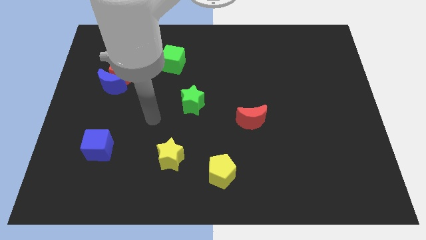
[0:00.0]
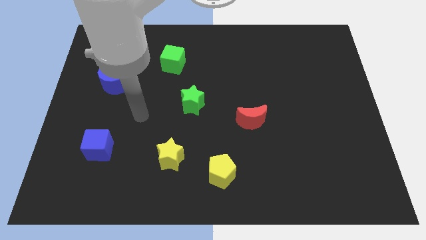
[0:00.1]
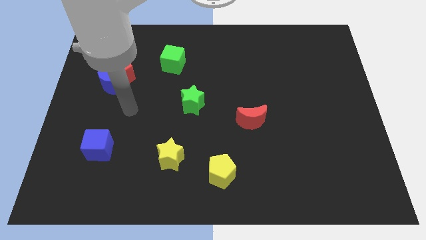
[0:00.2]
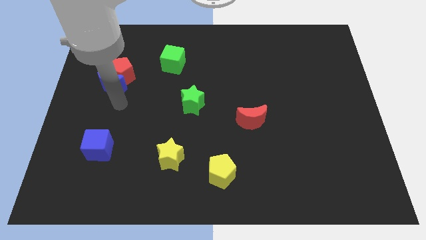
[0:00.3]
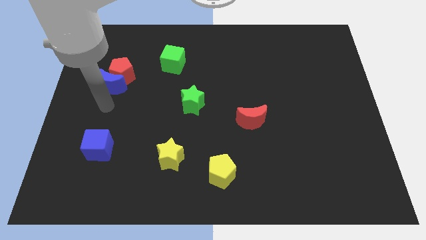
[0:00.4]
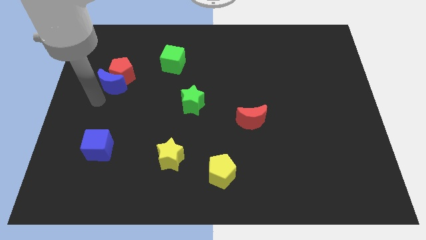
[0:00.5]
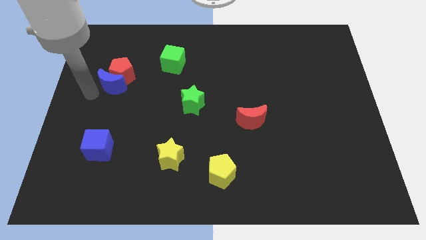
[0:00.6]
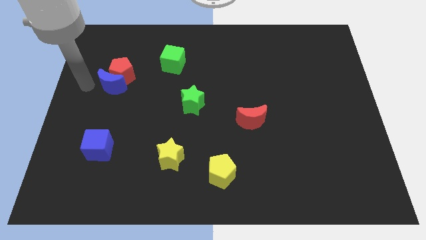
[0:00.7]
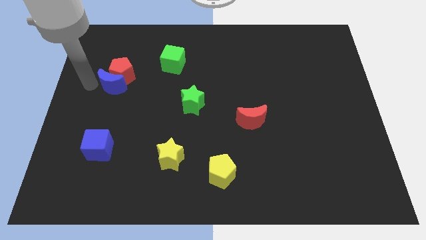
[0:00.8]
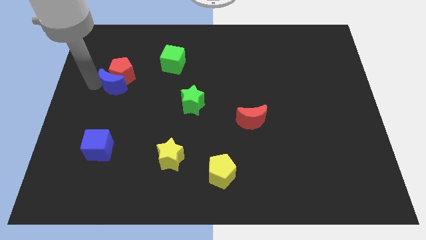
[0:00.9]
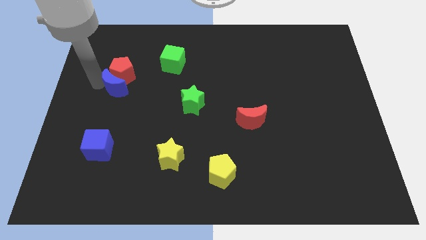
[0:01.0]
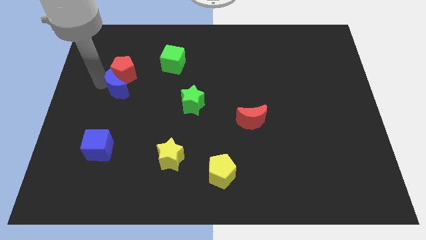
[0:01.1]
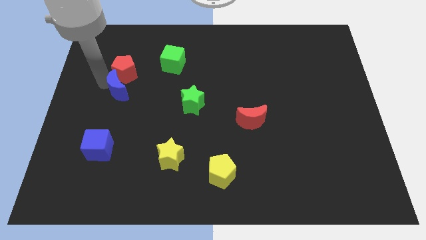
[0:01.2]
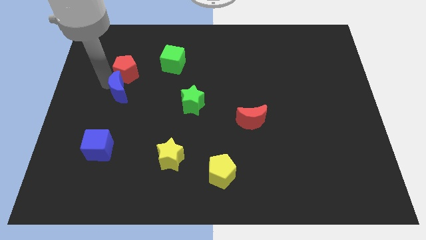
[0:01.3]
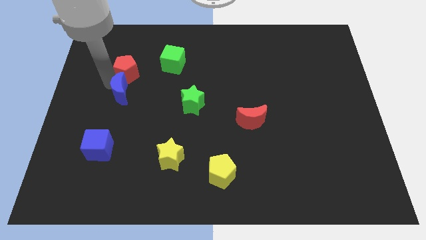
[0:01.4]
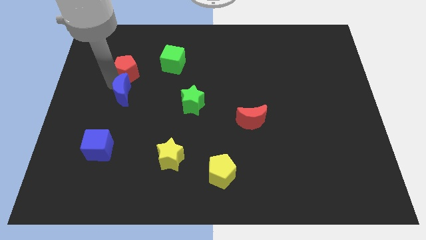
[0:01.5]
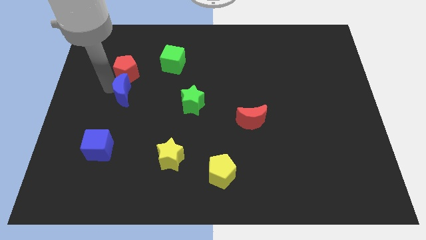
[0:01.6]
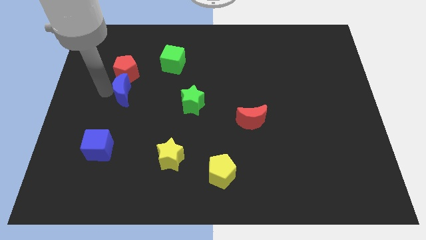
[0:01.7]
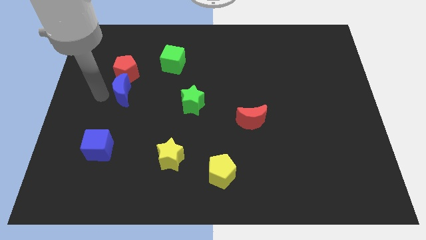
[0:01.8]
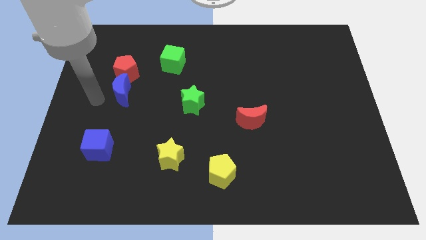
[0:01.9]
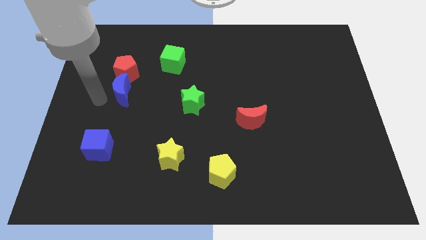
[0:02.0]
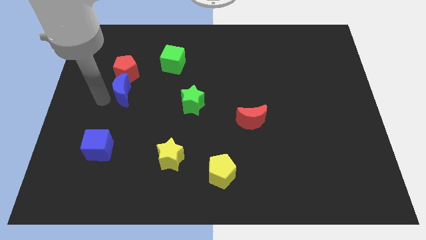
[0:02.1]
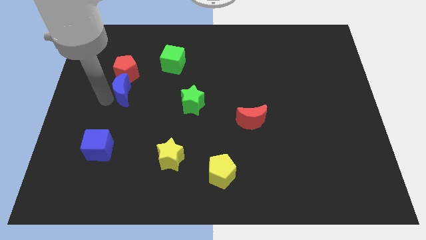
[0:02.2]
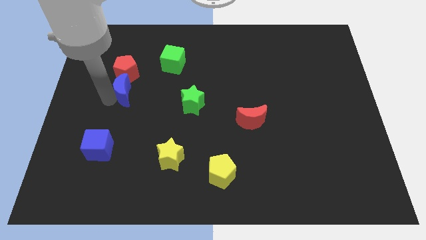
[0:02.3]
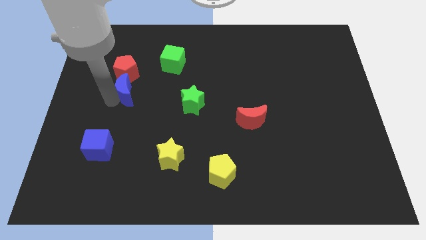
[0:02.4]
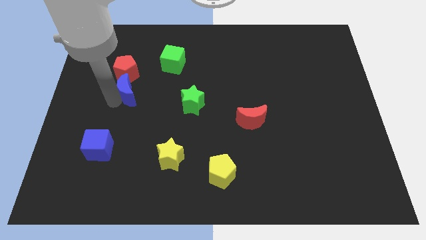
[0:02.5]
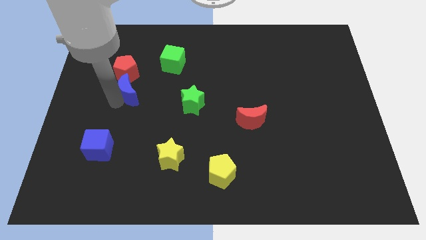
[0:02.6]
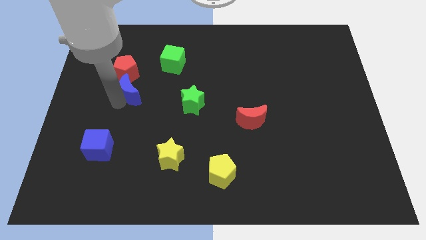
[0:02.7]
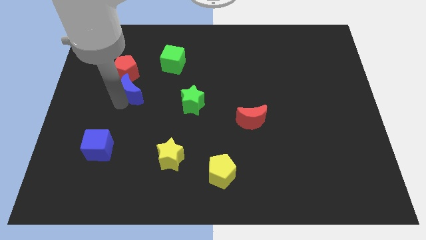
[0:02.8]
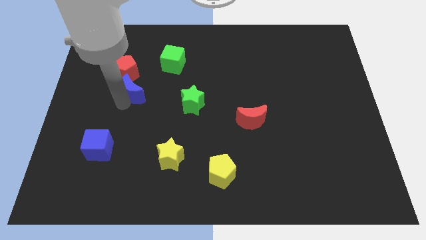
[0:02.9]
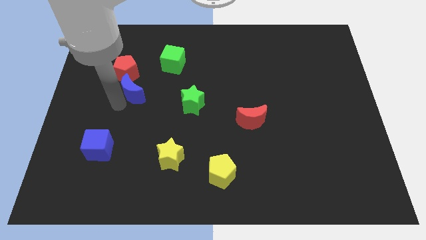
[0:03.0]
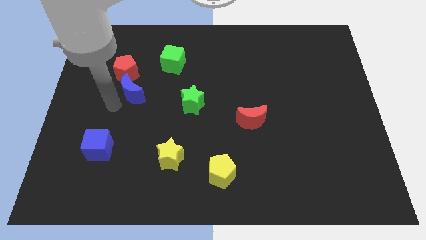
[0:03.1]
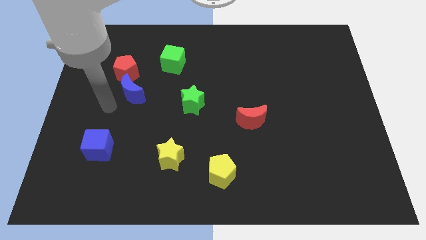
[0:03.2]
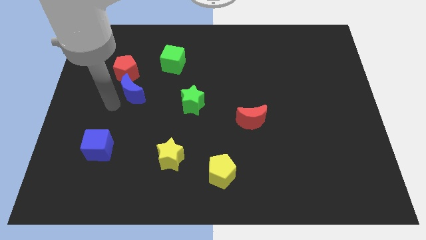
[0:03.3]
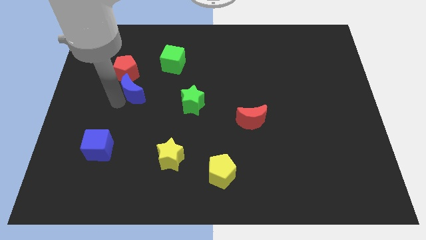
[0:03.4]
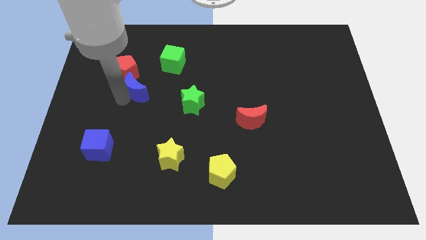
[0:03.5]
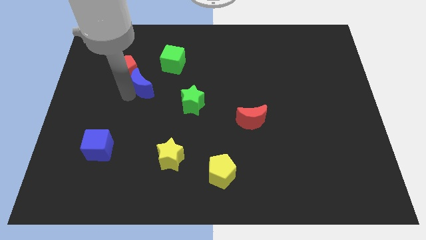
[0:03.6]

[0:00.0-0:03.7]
slide the blue moon right a little

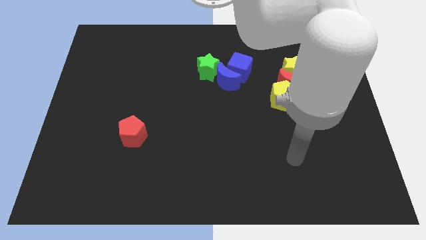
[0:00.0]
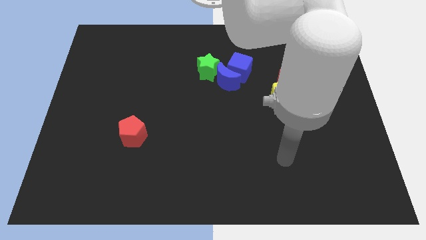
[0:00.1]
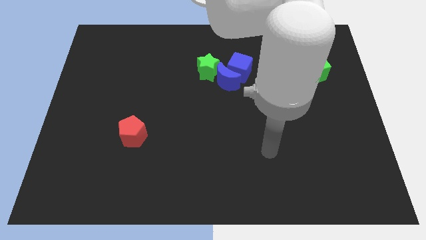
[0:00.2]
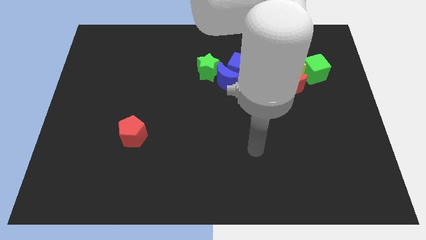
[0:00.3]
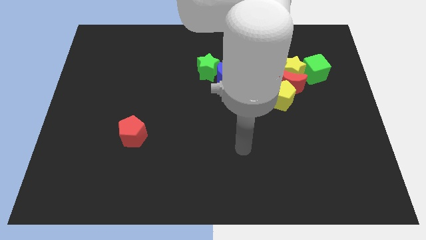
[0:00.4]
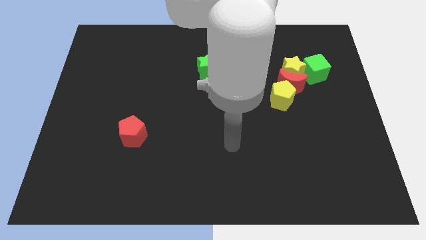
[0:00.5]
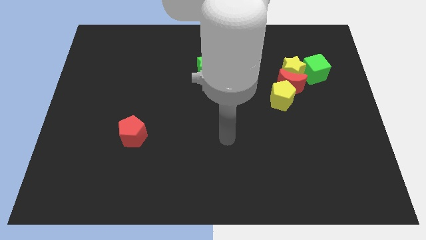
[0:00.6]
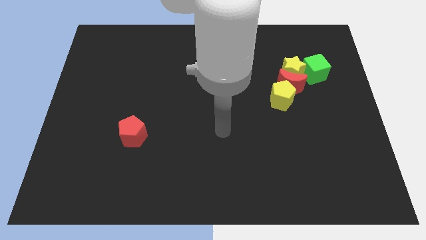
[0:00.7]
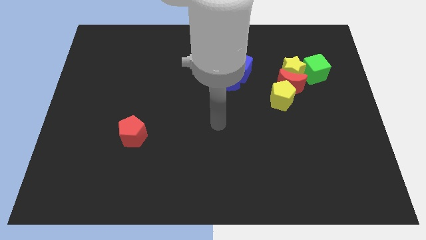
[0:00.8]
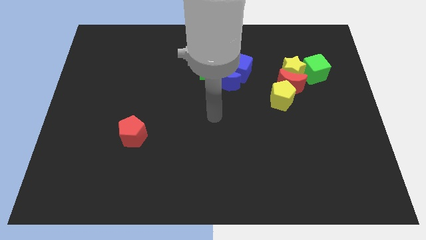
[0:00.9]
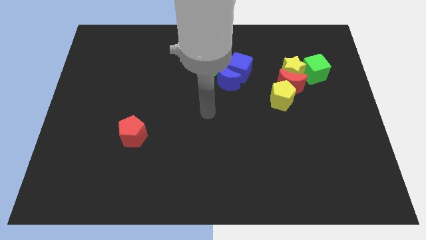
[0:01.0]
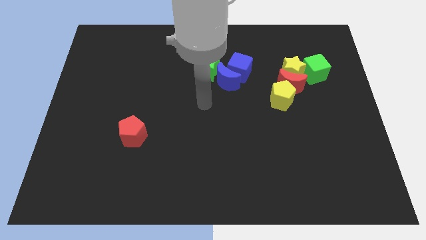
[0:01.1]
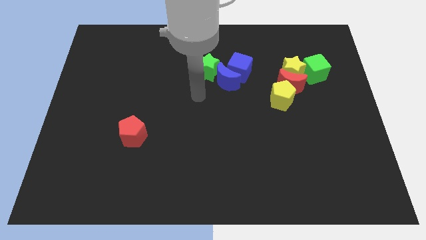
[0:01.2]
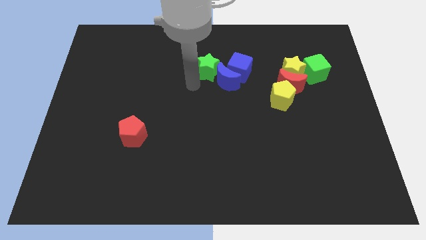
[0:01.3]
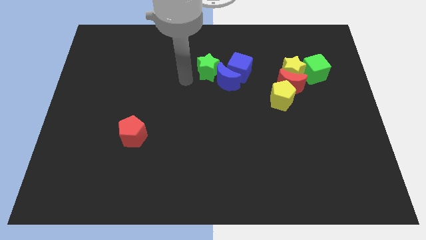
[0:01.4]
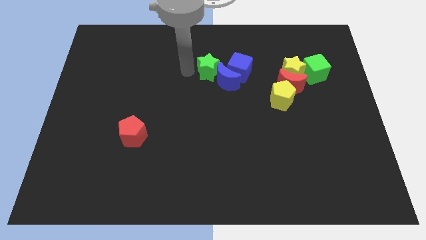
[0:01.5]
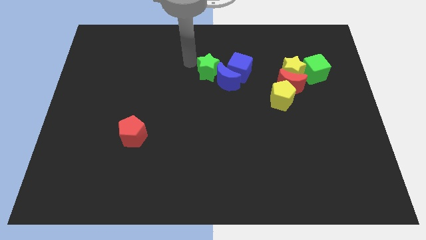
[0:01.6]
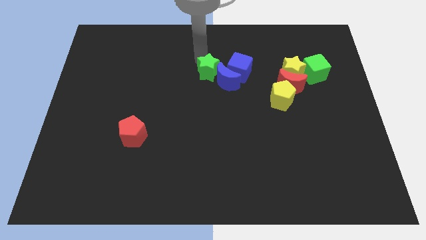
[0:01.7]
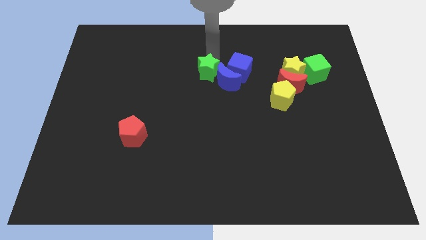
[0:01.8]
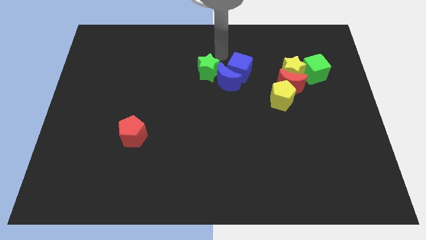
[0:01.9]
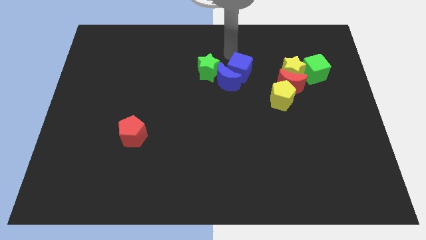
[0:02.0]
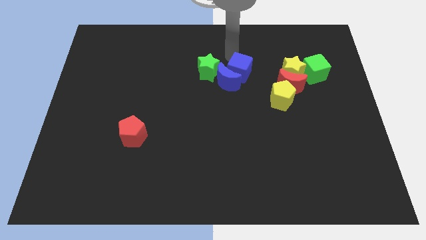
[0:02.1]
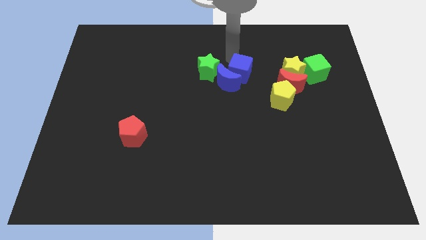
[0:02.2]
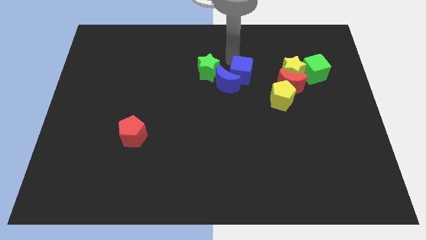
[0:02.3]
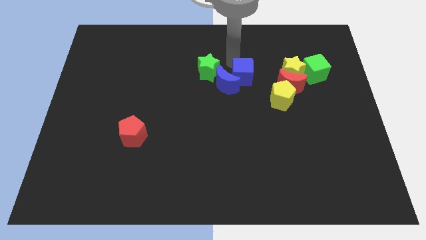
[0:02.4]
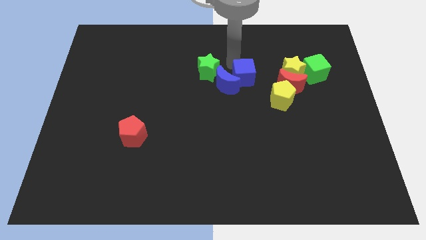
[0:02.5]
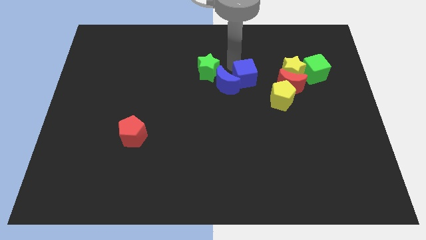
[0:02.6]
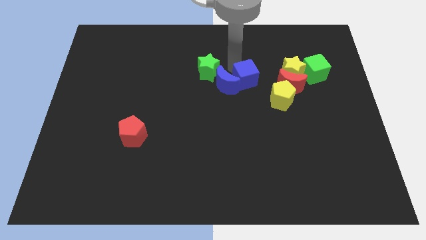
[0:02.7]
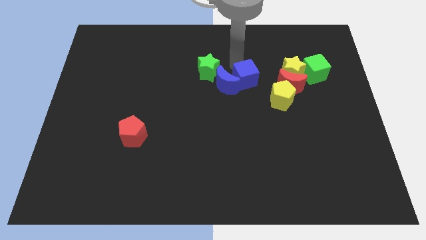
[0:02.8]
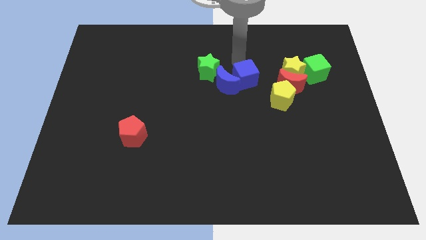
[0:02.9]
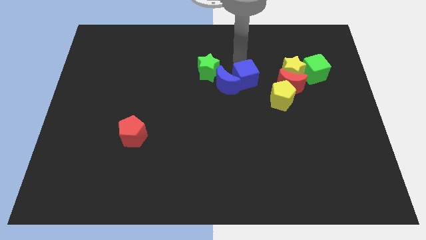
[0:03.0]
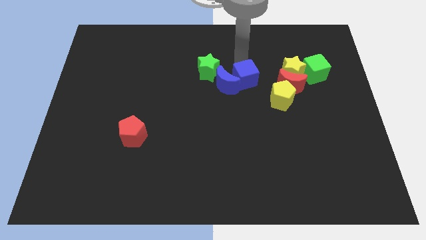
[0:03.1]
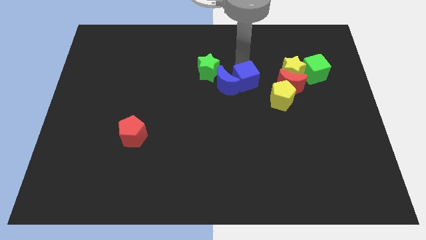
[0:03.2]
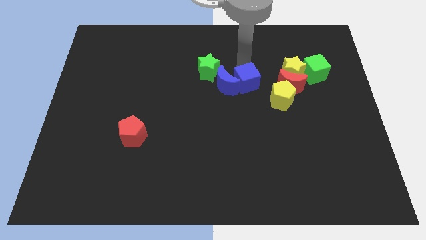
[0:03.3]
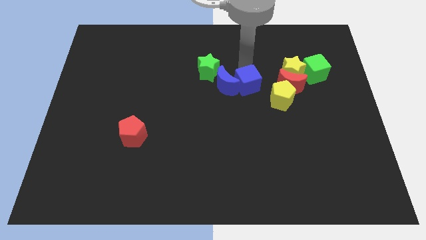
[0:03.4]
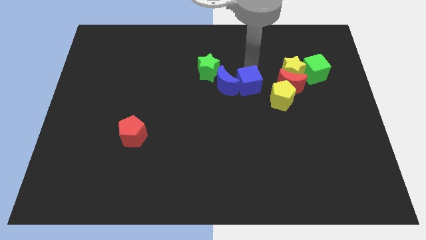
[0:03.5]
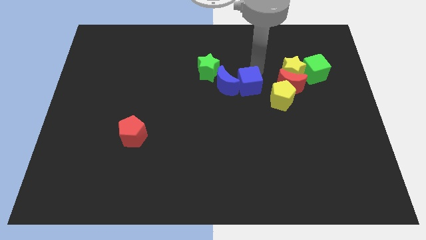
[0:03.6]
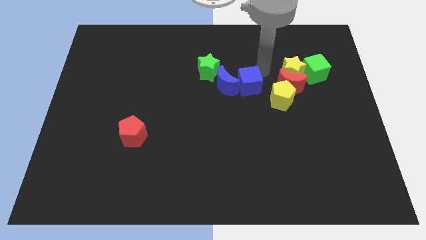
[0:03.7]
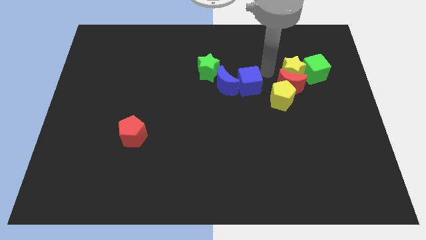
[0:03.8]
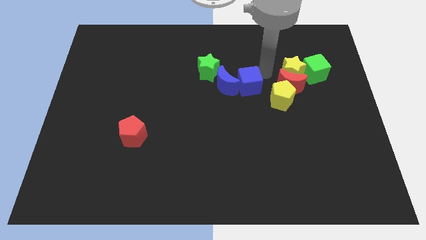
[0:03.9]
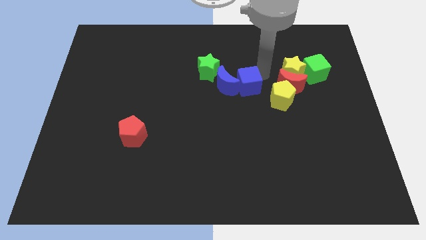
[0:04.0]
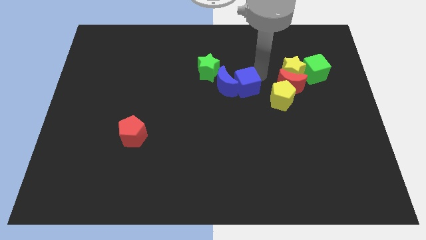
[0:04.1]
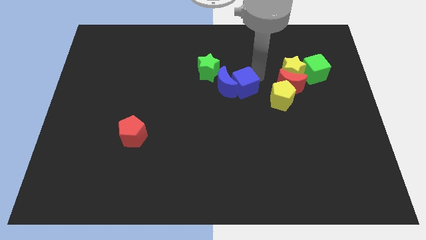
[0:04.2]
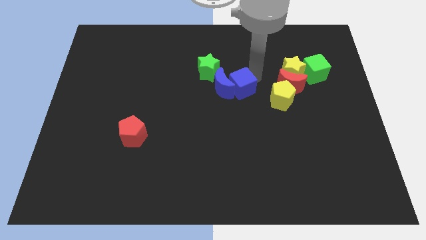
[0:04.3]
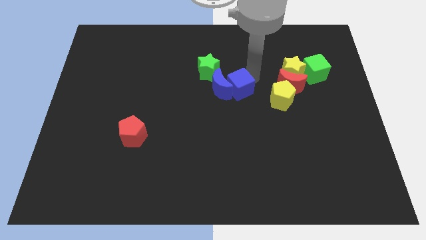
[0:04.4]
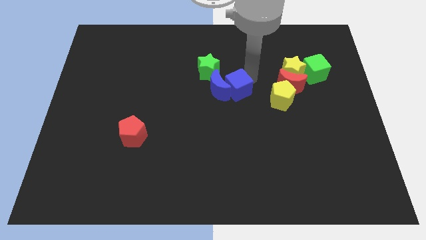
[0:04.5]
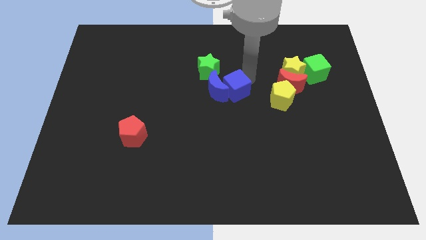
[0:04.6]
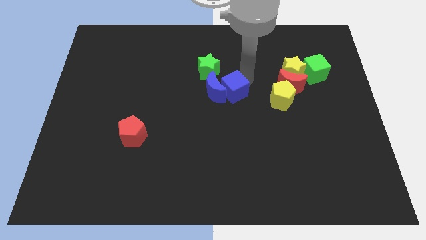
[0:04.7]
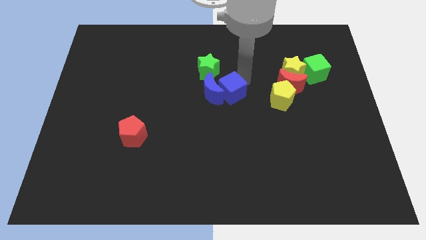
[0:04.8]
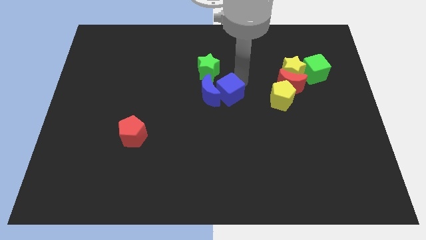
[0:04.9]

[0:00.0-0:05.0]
slightly move the blue cube diagonally down and to the left
